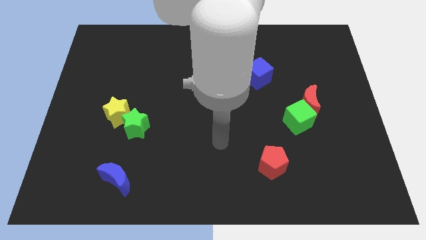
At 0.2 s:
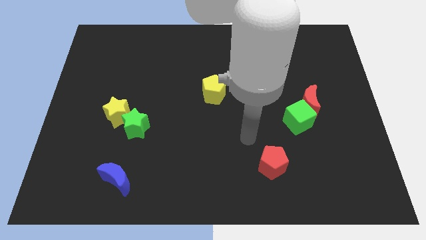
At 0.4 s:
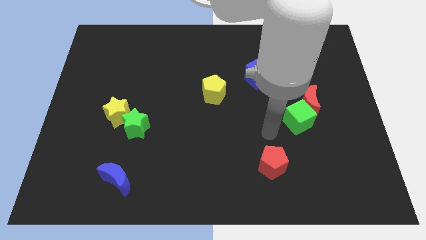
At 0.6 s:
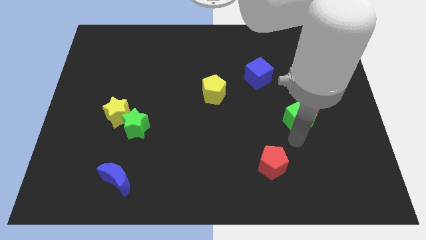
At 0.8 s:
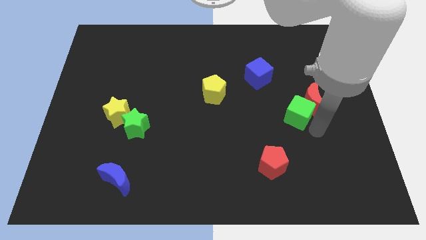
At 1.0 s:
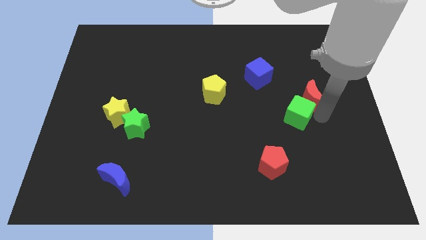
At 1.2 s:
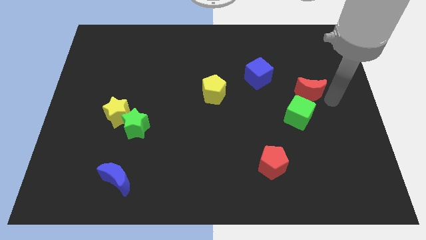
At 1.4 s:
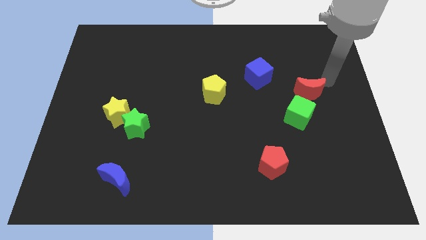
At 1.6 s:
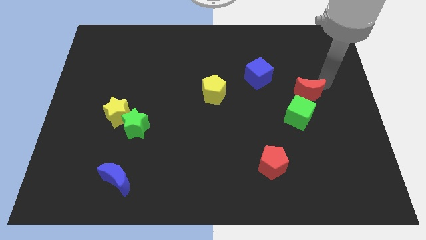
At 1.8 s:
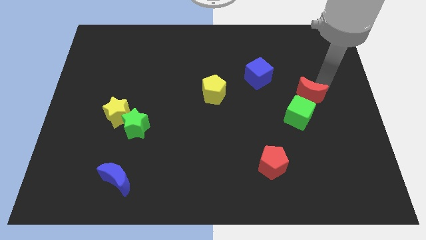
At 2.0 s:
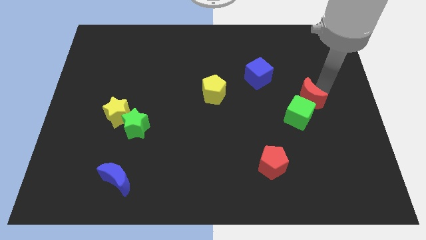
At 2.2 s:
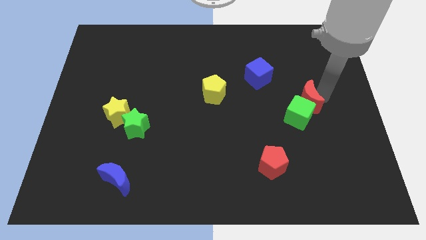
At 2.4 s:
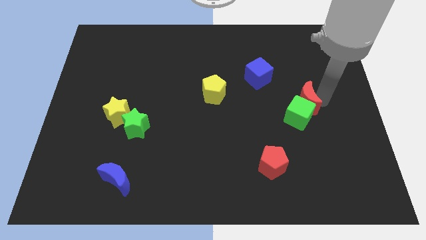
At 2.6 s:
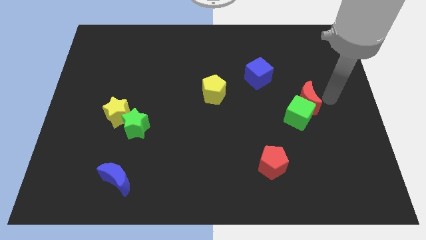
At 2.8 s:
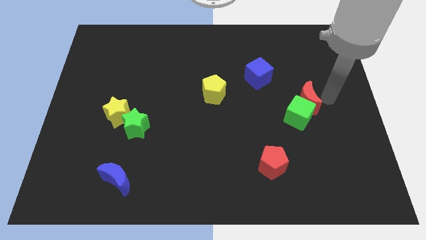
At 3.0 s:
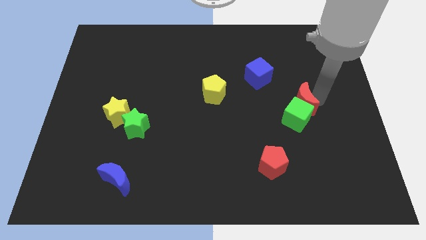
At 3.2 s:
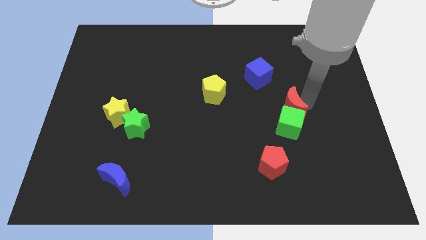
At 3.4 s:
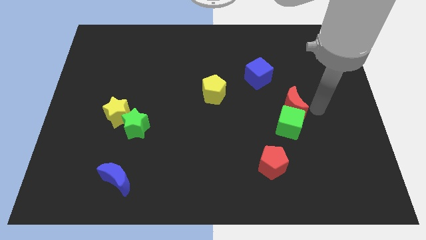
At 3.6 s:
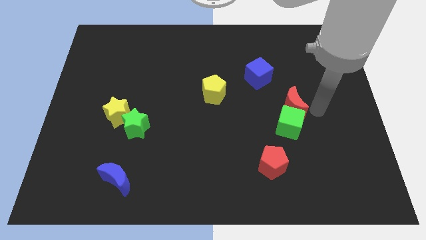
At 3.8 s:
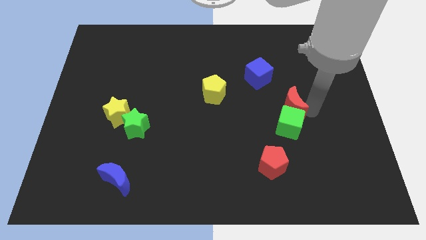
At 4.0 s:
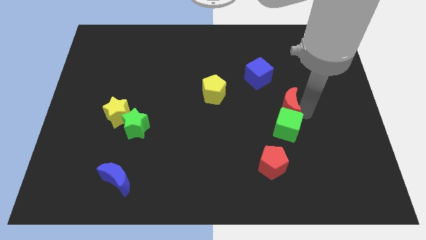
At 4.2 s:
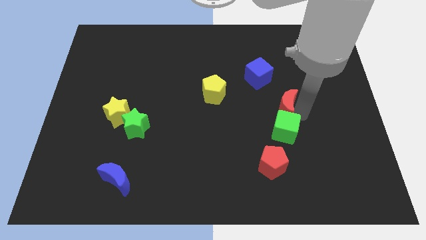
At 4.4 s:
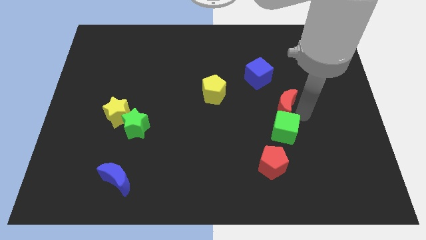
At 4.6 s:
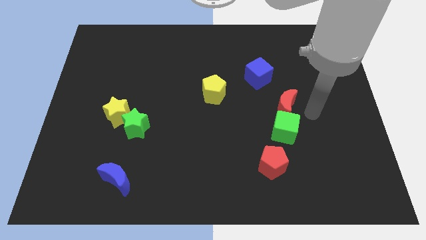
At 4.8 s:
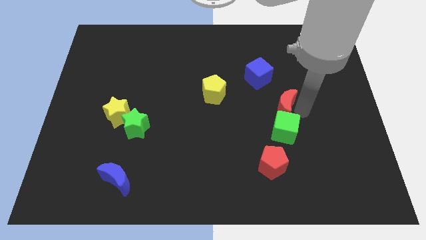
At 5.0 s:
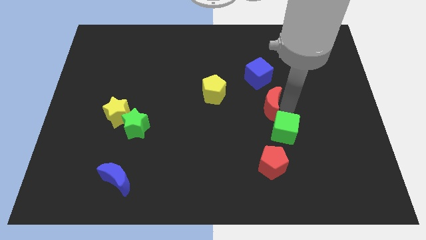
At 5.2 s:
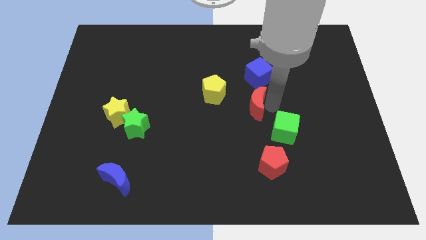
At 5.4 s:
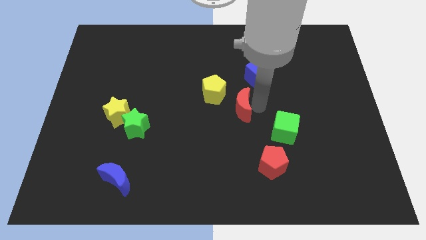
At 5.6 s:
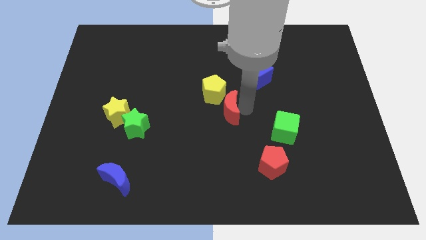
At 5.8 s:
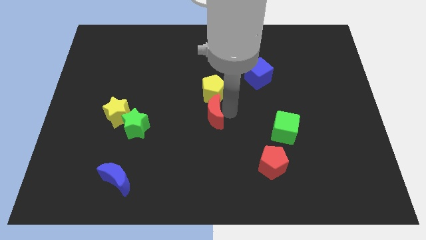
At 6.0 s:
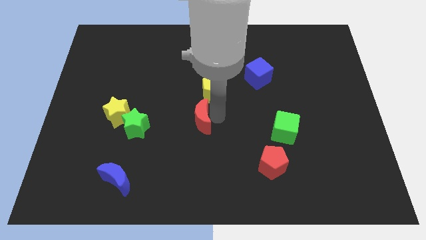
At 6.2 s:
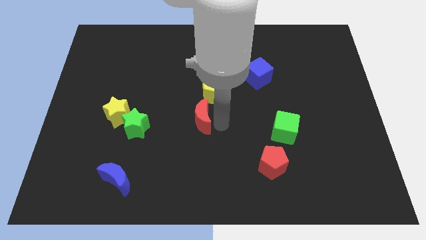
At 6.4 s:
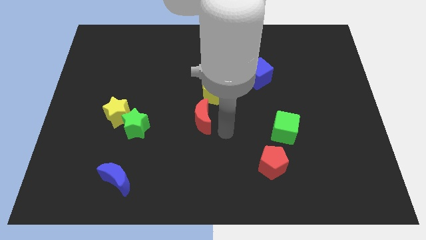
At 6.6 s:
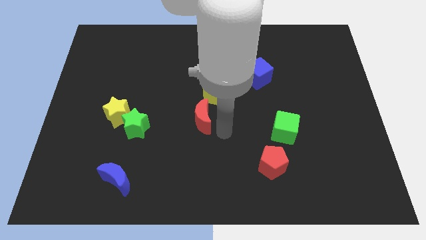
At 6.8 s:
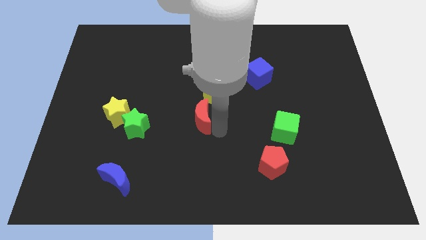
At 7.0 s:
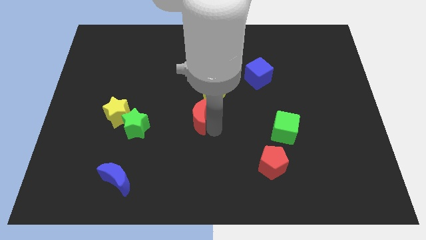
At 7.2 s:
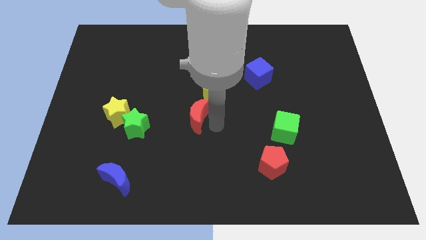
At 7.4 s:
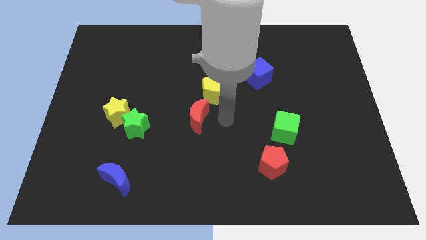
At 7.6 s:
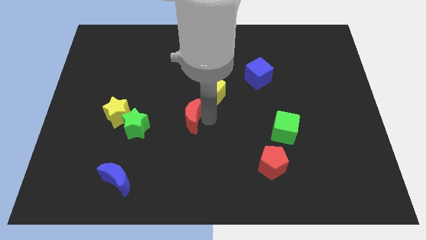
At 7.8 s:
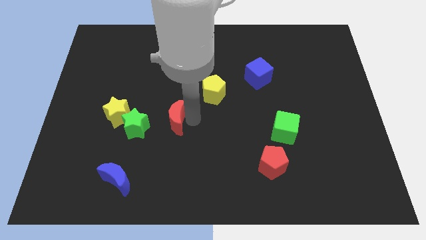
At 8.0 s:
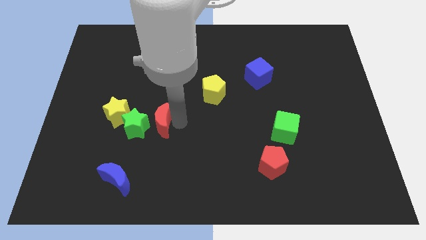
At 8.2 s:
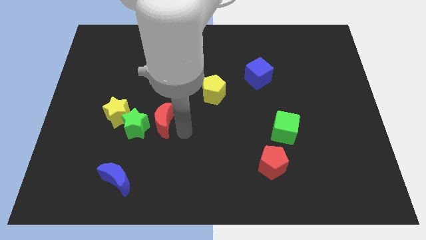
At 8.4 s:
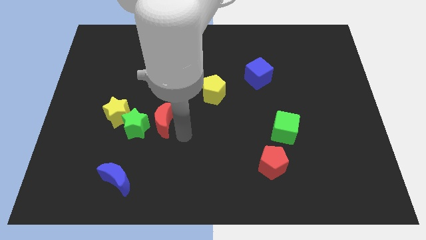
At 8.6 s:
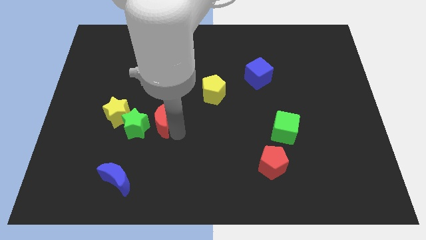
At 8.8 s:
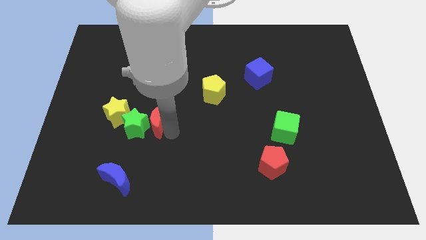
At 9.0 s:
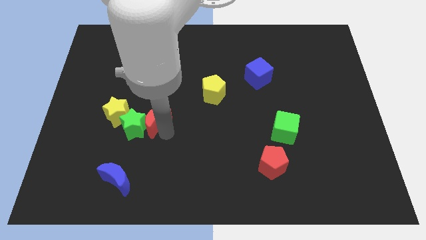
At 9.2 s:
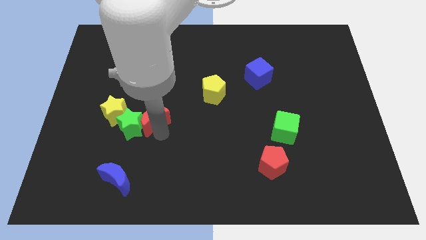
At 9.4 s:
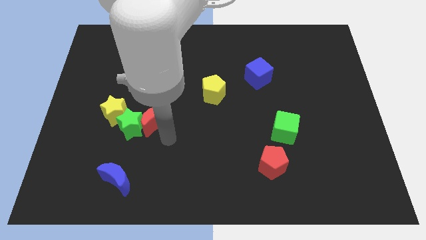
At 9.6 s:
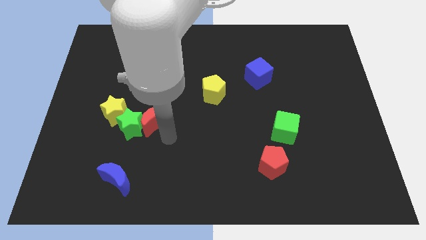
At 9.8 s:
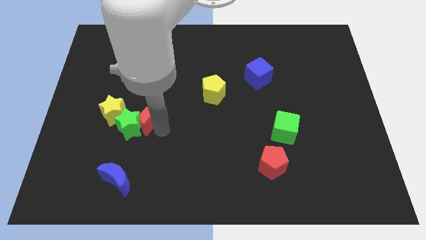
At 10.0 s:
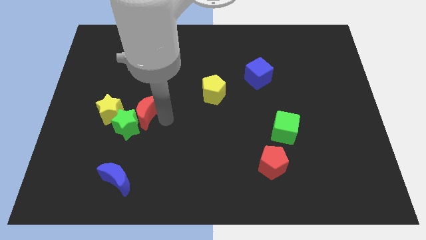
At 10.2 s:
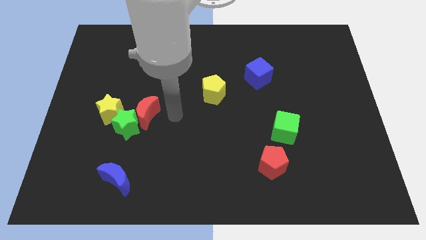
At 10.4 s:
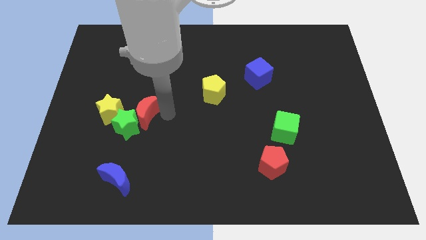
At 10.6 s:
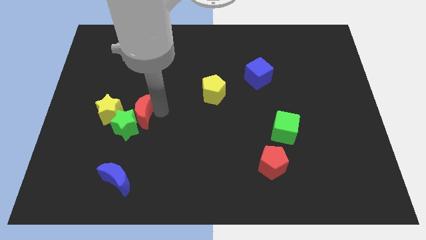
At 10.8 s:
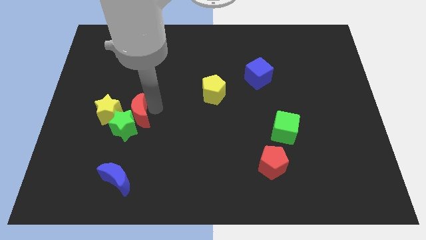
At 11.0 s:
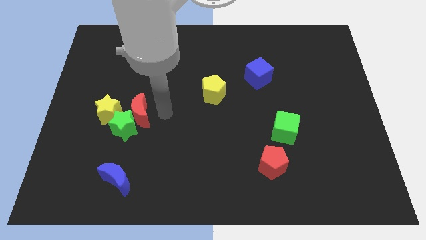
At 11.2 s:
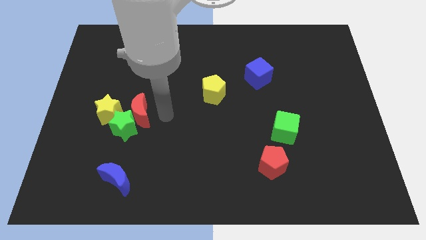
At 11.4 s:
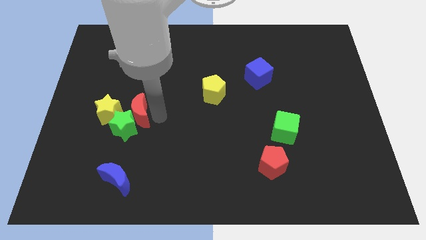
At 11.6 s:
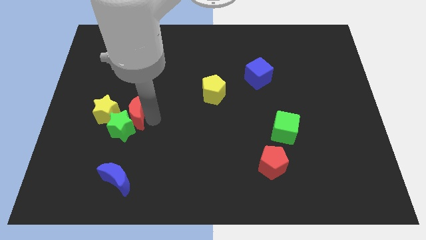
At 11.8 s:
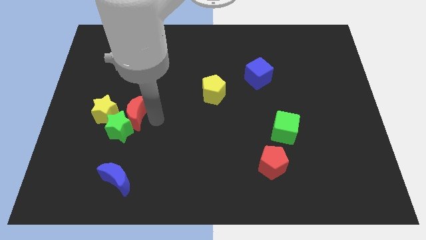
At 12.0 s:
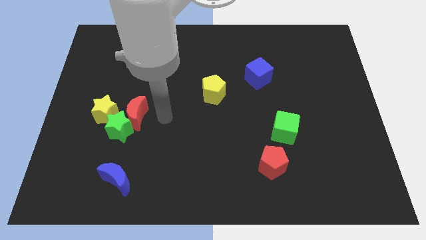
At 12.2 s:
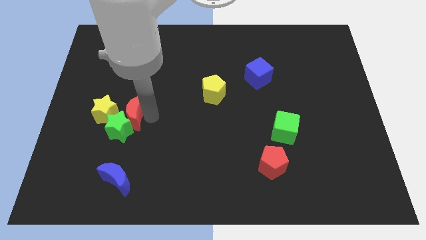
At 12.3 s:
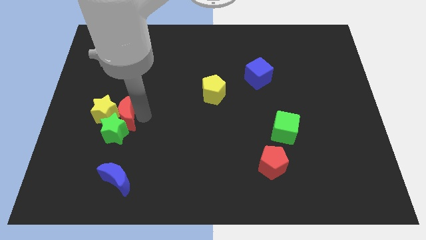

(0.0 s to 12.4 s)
put the red moon towards the yellow star

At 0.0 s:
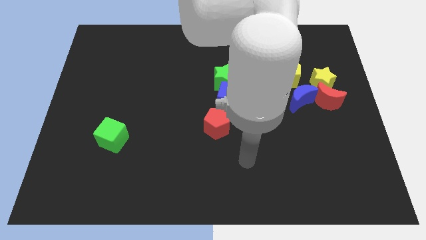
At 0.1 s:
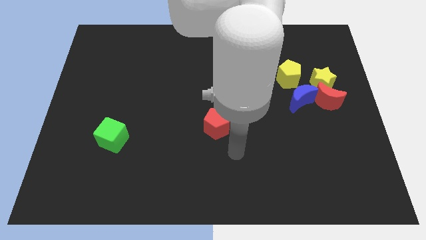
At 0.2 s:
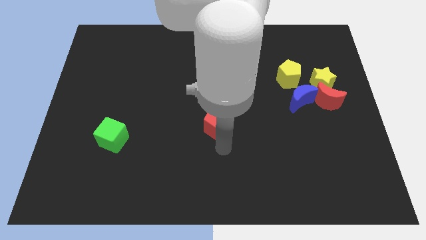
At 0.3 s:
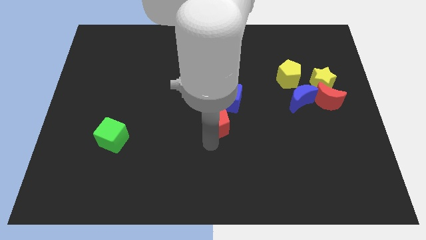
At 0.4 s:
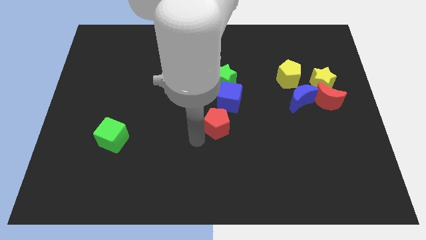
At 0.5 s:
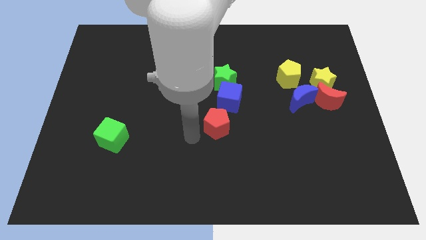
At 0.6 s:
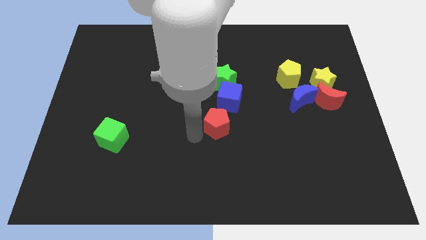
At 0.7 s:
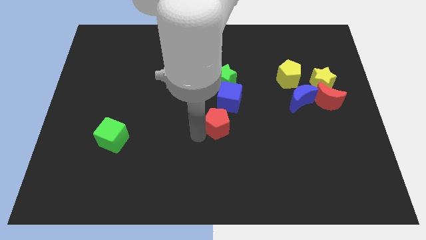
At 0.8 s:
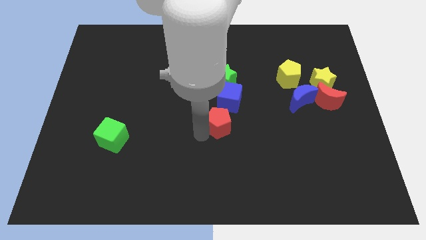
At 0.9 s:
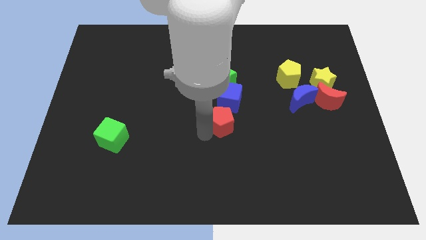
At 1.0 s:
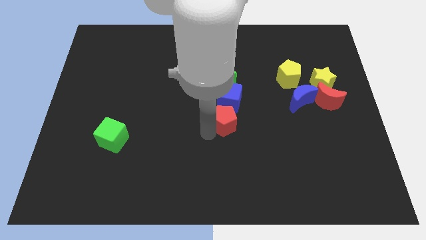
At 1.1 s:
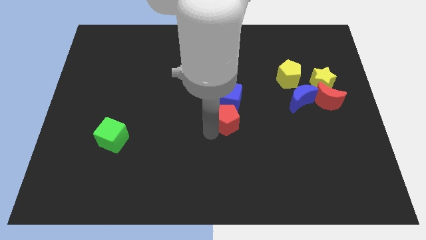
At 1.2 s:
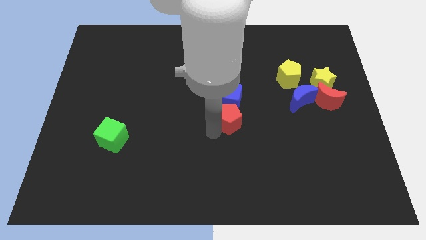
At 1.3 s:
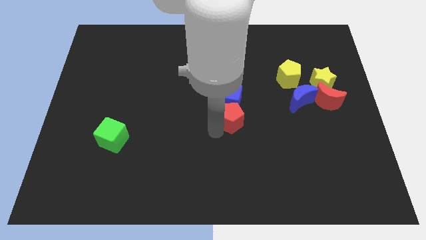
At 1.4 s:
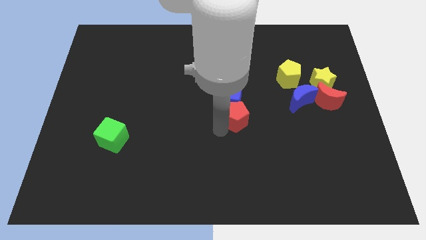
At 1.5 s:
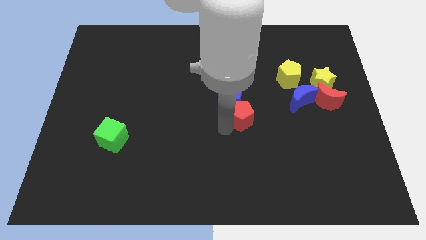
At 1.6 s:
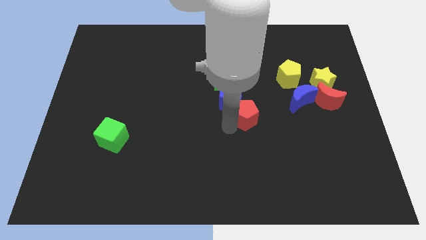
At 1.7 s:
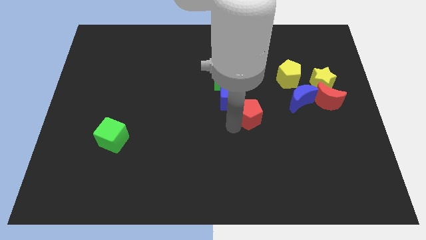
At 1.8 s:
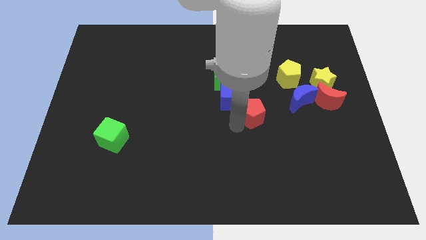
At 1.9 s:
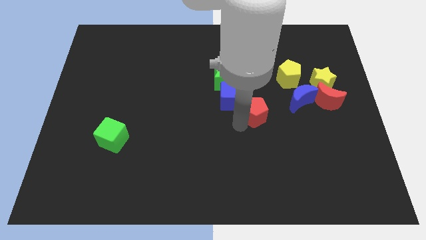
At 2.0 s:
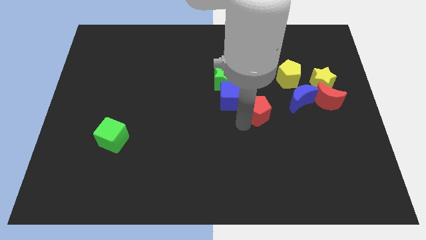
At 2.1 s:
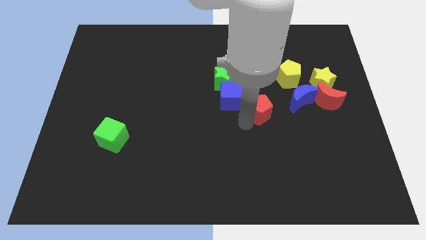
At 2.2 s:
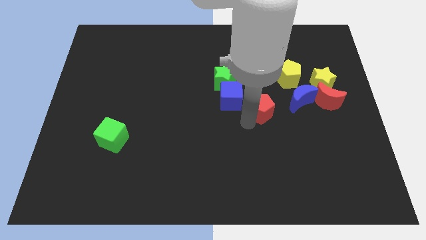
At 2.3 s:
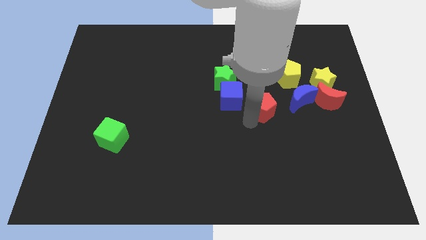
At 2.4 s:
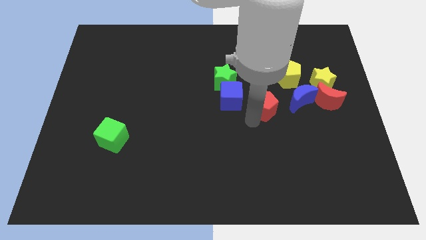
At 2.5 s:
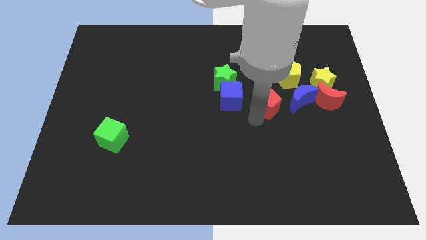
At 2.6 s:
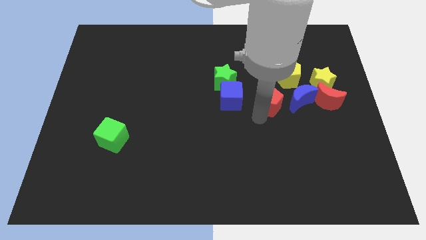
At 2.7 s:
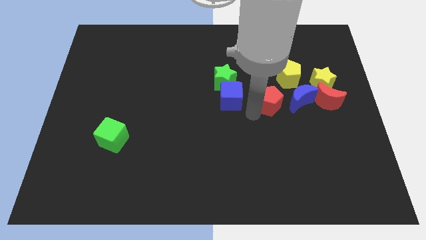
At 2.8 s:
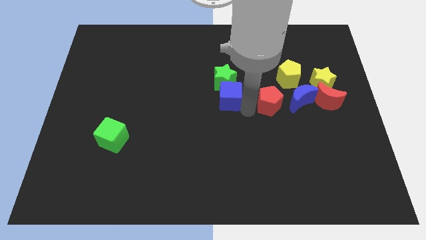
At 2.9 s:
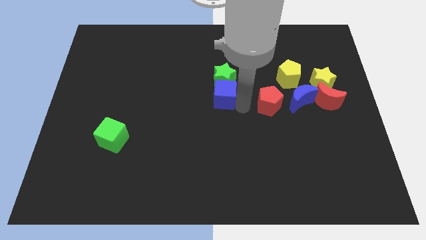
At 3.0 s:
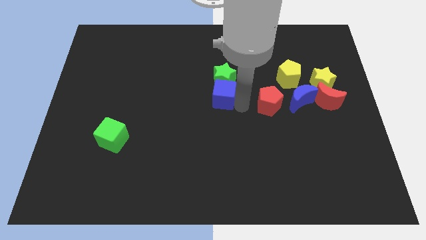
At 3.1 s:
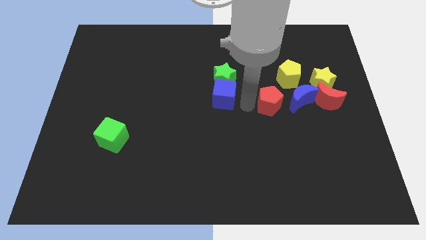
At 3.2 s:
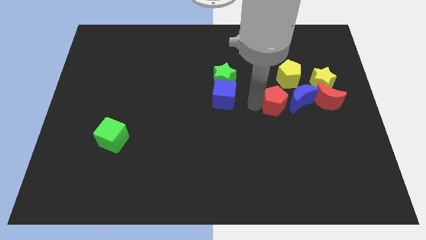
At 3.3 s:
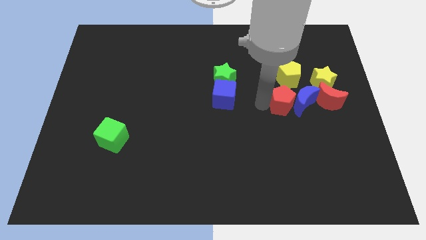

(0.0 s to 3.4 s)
slide the red pentagon next to the blue moon
